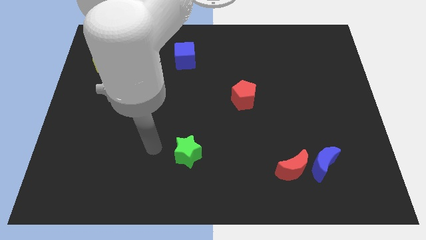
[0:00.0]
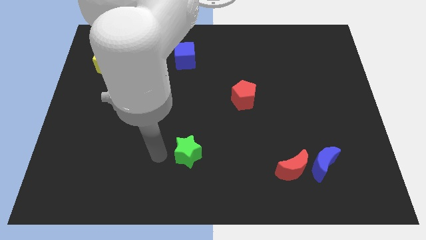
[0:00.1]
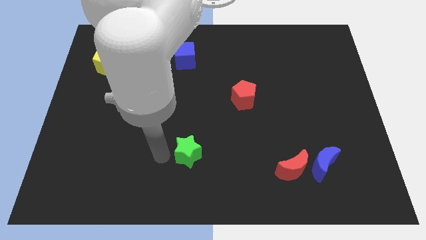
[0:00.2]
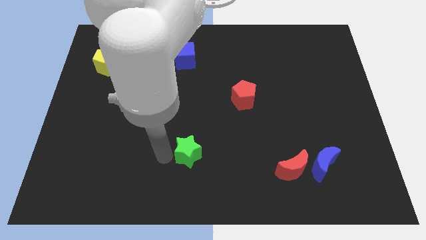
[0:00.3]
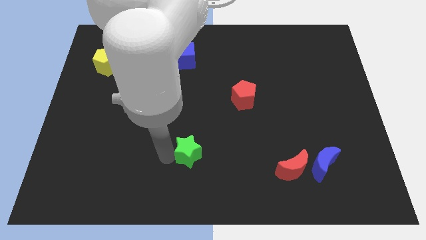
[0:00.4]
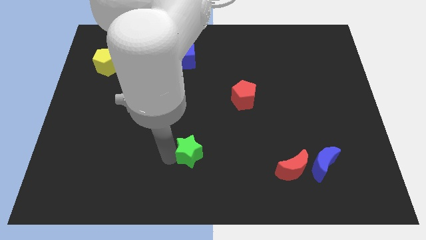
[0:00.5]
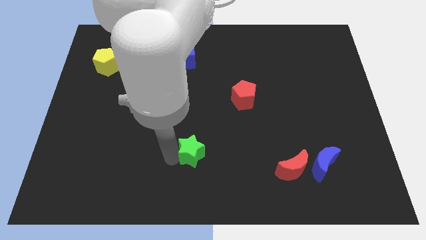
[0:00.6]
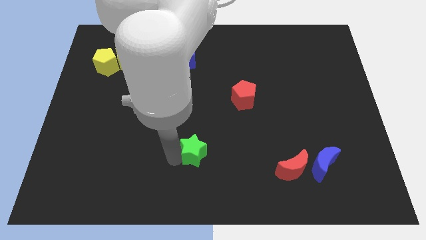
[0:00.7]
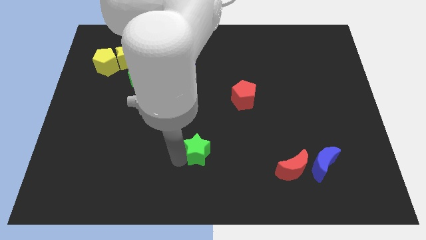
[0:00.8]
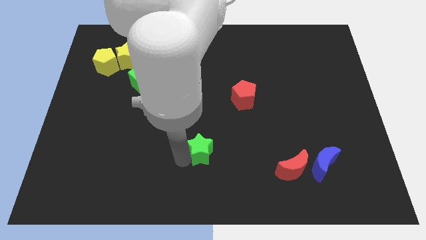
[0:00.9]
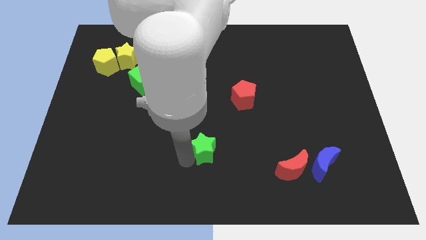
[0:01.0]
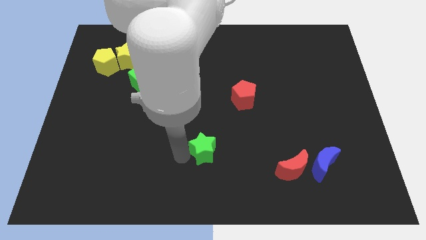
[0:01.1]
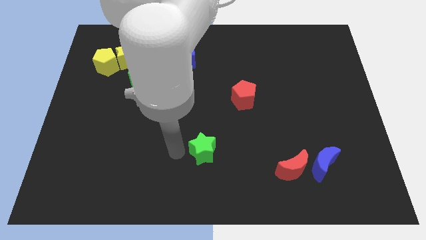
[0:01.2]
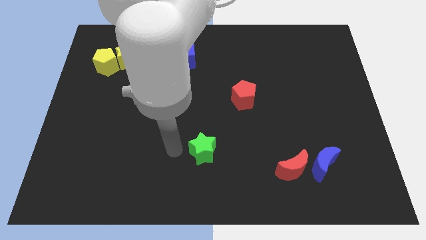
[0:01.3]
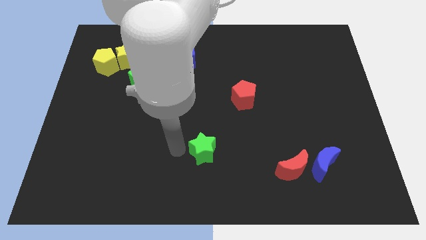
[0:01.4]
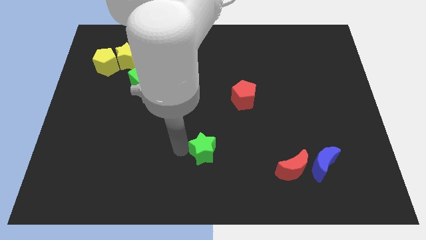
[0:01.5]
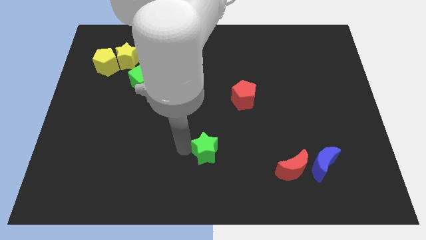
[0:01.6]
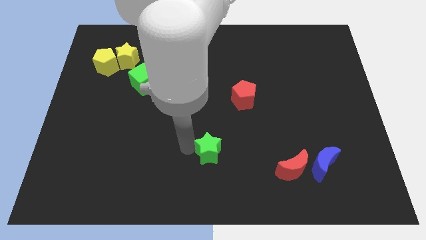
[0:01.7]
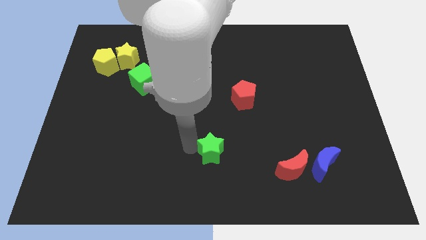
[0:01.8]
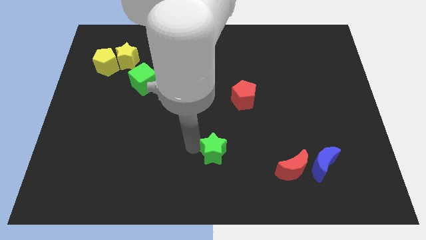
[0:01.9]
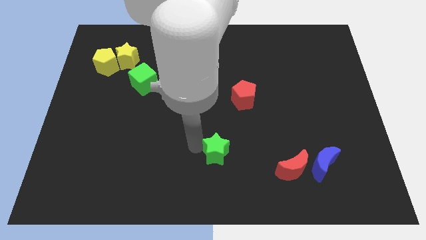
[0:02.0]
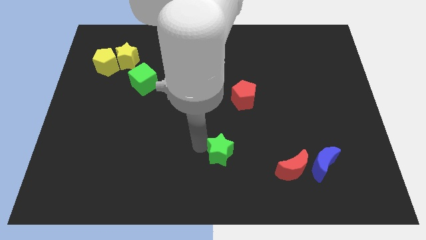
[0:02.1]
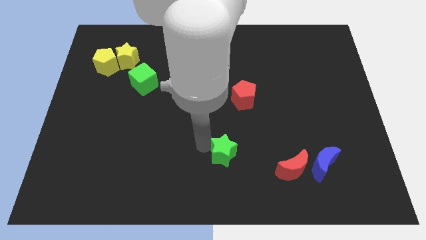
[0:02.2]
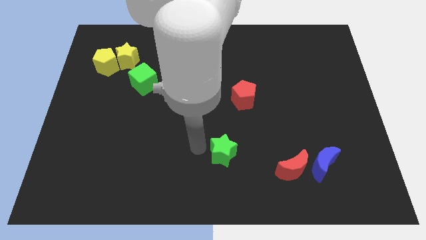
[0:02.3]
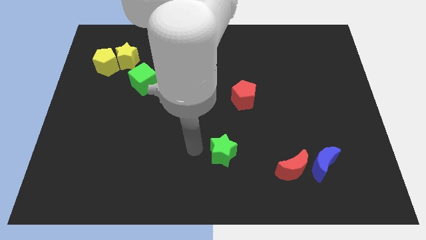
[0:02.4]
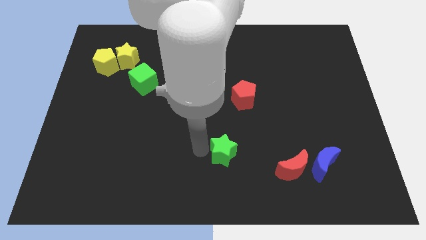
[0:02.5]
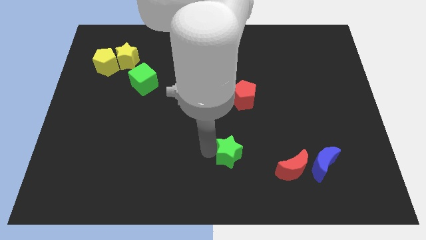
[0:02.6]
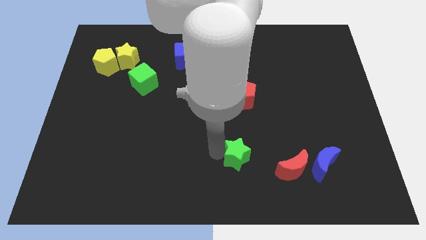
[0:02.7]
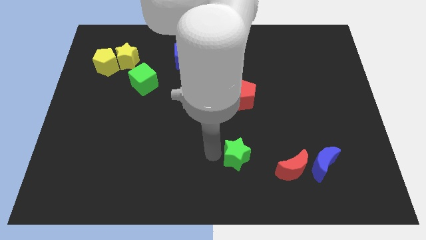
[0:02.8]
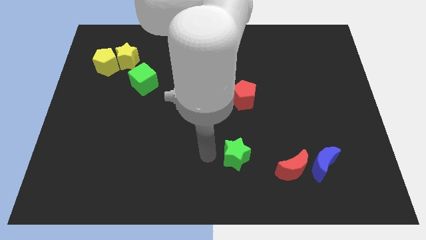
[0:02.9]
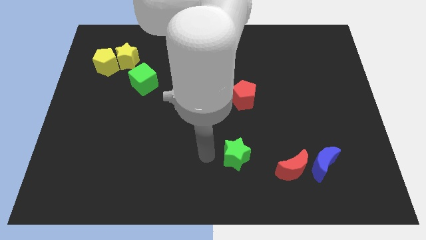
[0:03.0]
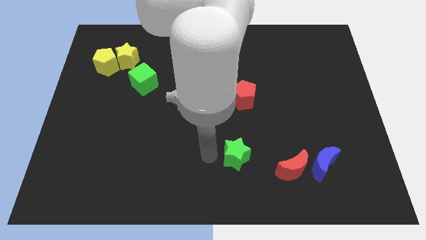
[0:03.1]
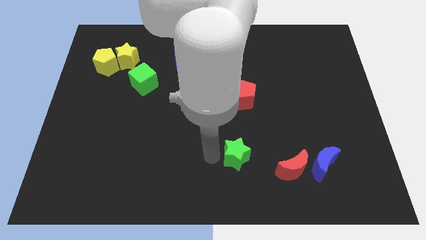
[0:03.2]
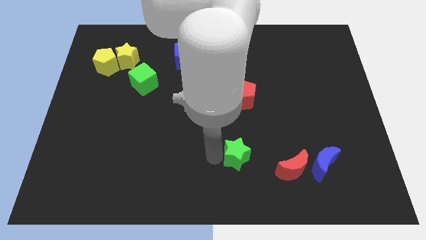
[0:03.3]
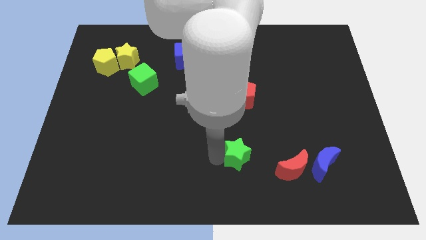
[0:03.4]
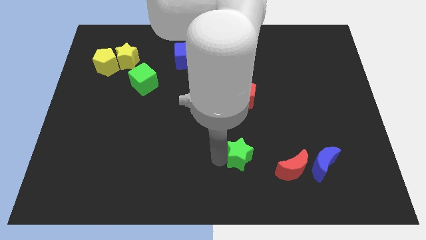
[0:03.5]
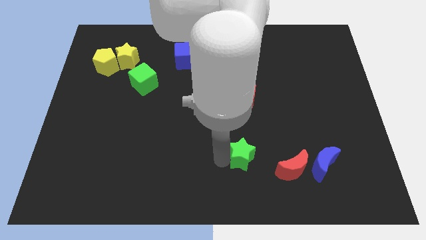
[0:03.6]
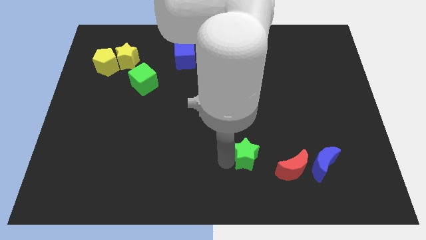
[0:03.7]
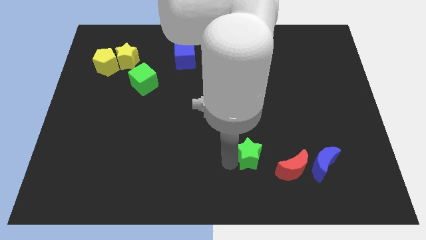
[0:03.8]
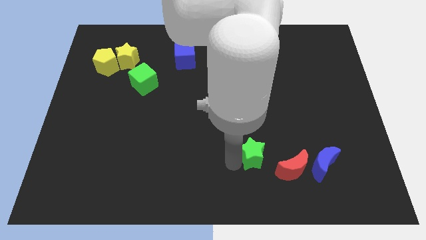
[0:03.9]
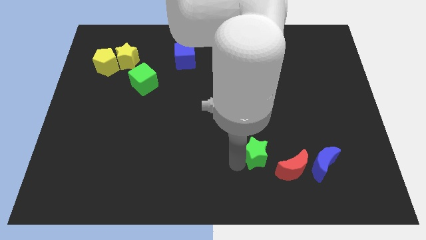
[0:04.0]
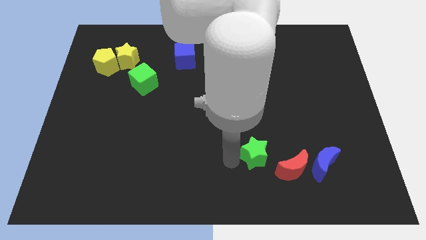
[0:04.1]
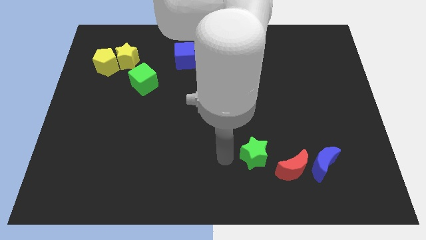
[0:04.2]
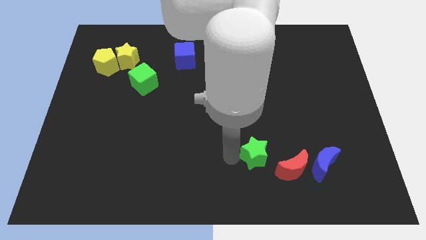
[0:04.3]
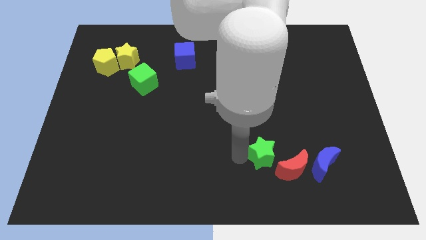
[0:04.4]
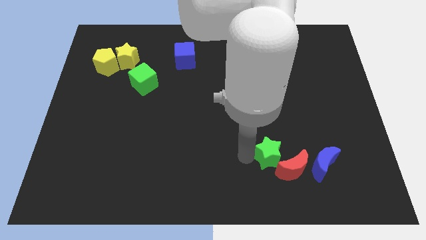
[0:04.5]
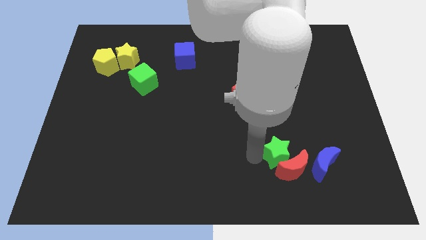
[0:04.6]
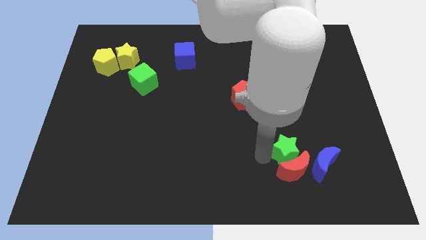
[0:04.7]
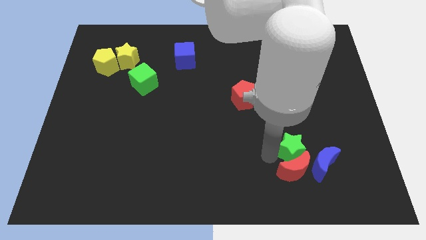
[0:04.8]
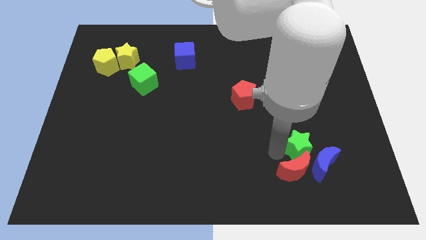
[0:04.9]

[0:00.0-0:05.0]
push the green star to the blue moon

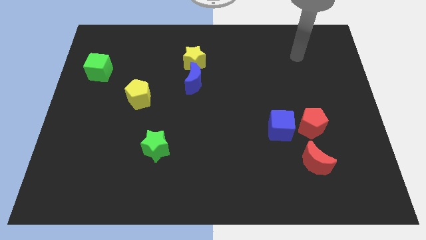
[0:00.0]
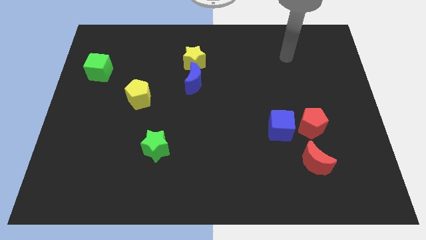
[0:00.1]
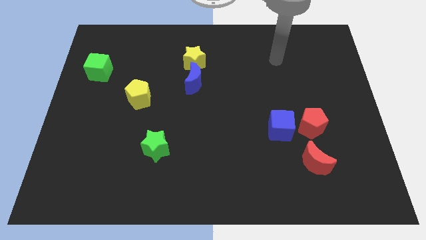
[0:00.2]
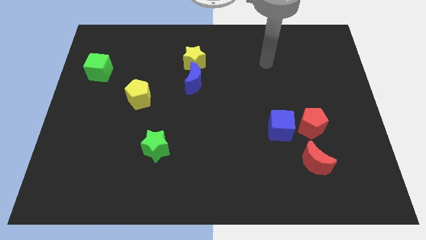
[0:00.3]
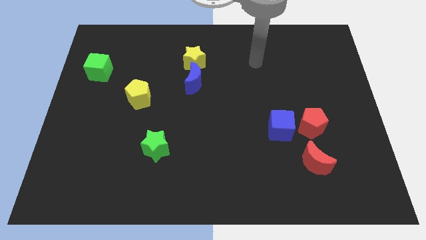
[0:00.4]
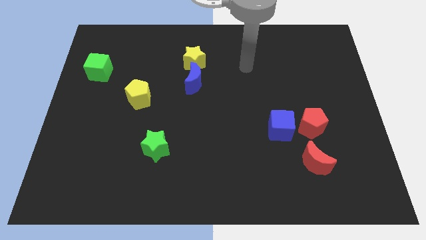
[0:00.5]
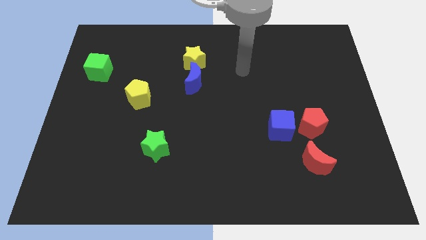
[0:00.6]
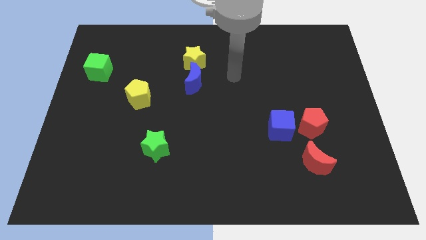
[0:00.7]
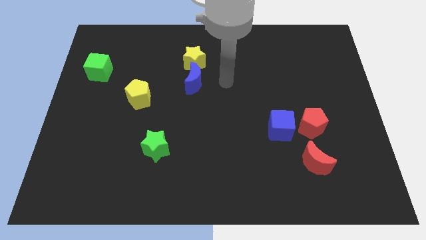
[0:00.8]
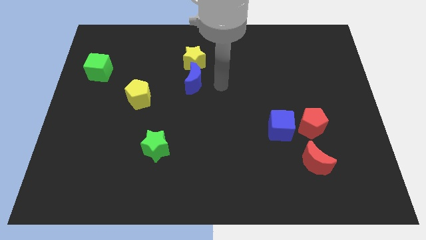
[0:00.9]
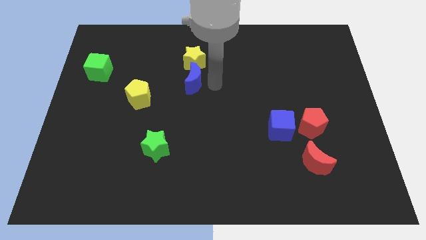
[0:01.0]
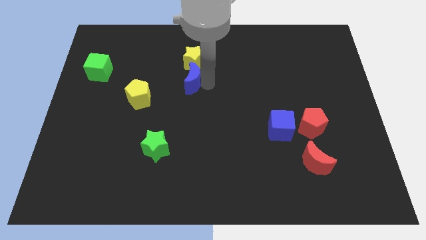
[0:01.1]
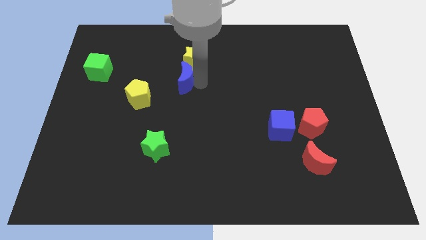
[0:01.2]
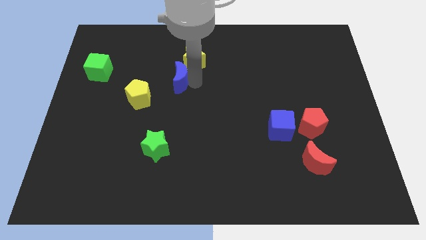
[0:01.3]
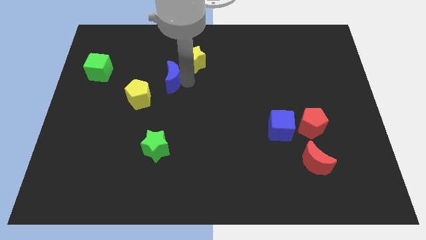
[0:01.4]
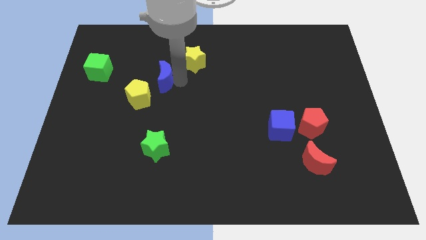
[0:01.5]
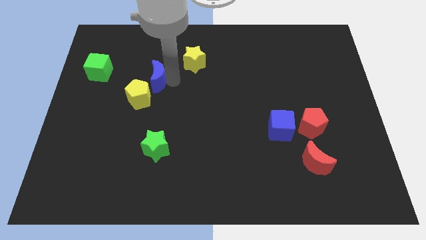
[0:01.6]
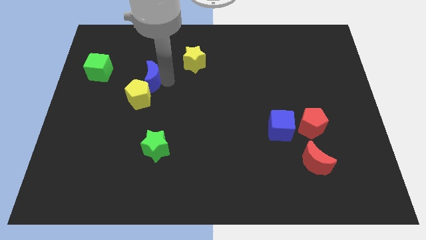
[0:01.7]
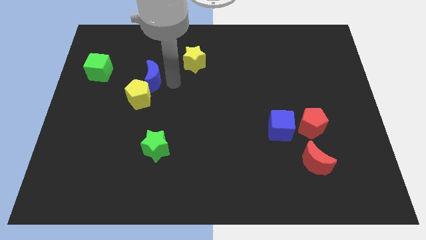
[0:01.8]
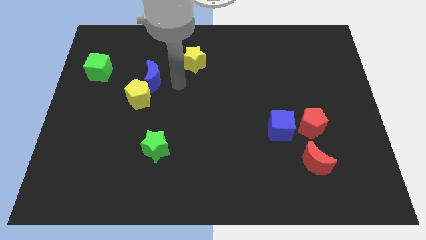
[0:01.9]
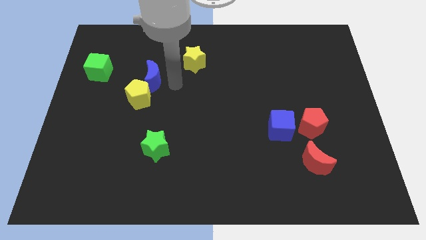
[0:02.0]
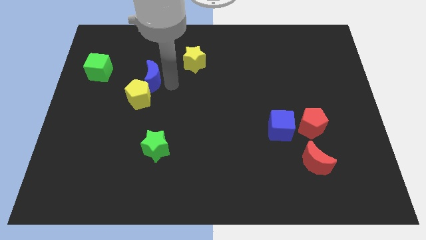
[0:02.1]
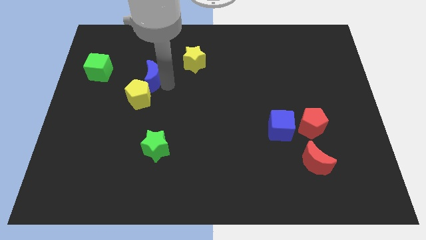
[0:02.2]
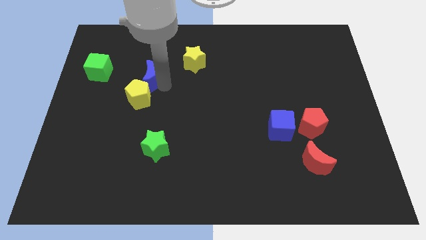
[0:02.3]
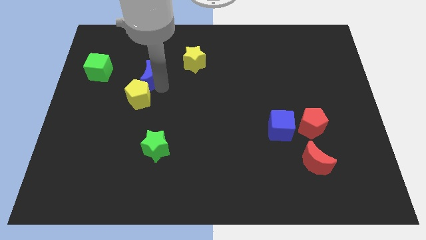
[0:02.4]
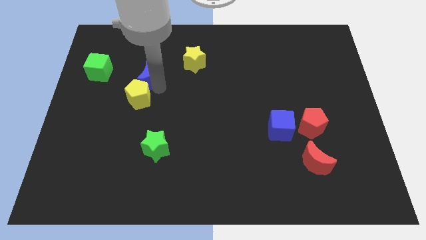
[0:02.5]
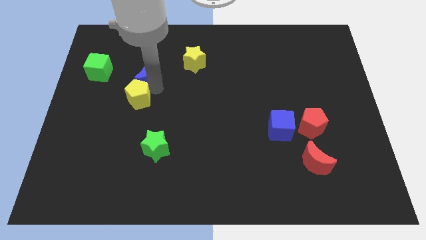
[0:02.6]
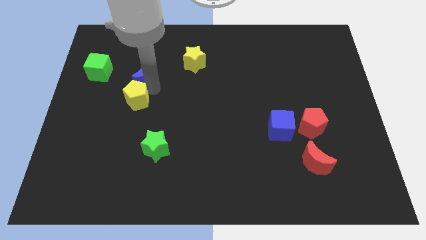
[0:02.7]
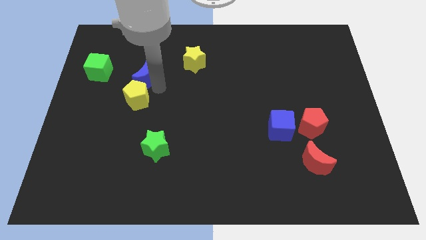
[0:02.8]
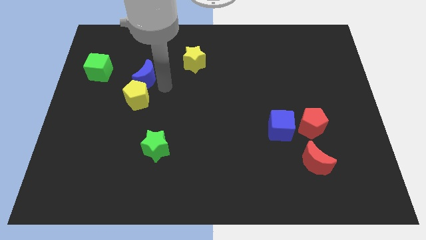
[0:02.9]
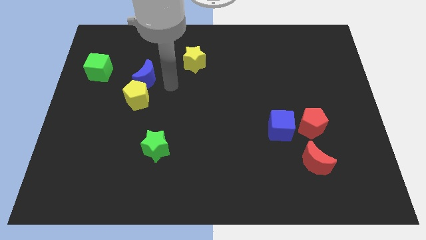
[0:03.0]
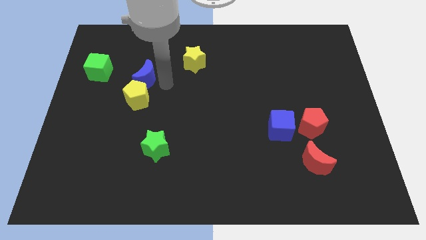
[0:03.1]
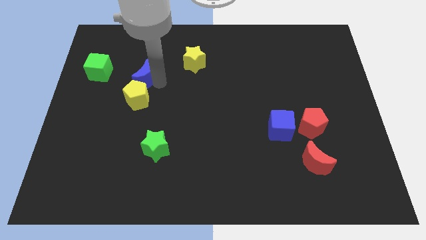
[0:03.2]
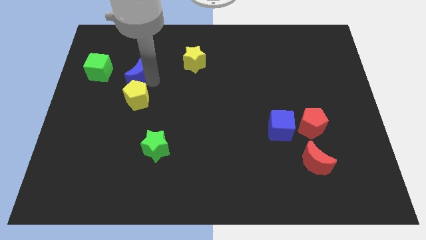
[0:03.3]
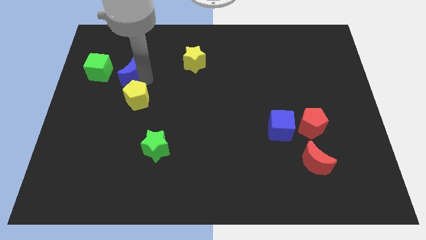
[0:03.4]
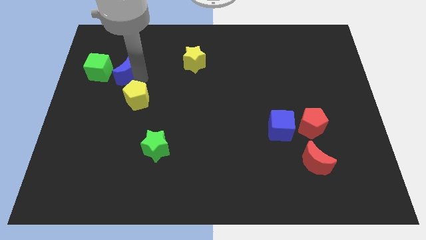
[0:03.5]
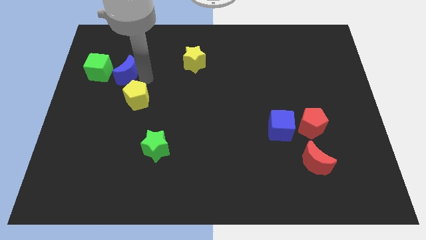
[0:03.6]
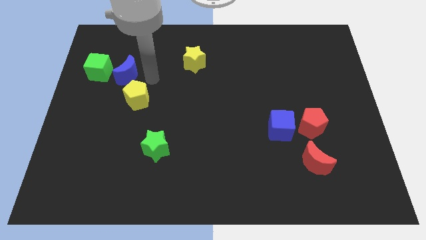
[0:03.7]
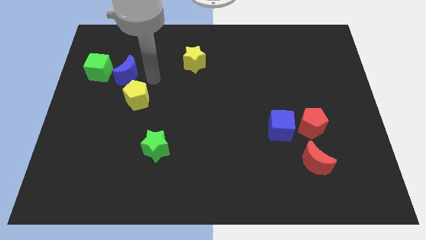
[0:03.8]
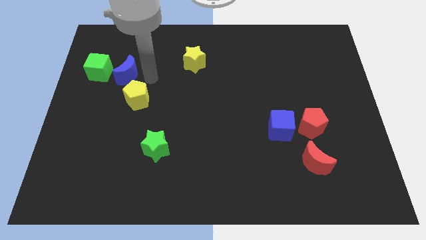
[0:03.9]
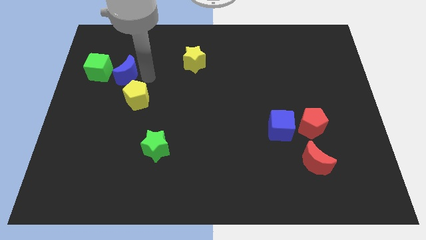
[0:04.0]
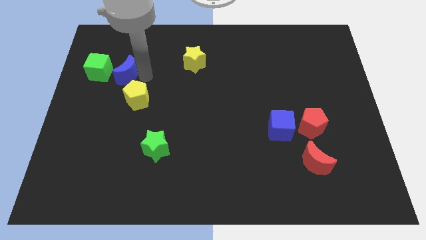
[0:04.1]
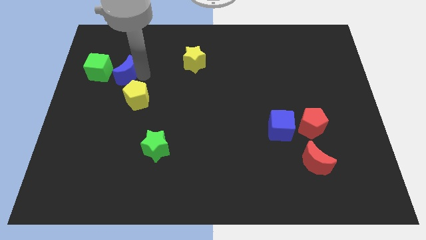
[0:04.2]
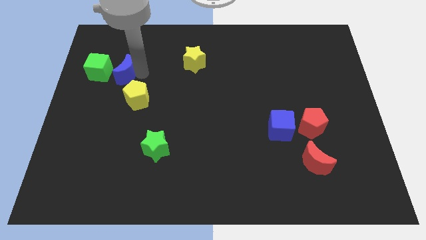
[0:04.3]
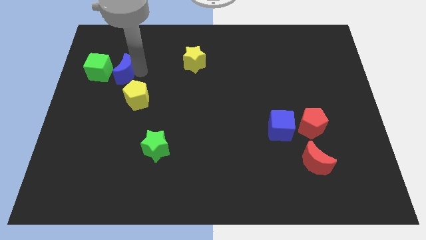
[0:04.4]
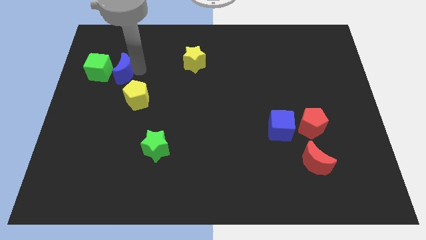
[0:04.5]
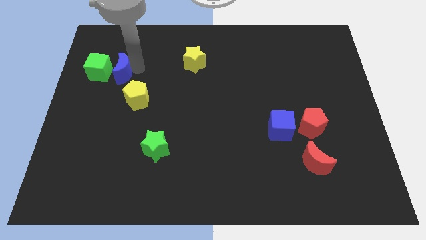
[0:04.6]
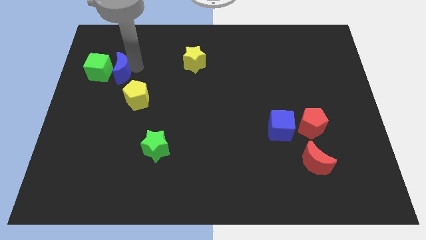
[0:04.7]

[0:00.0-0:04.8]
push the blue moon to the green cube
